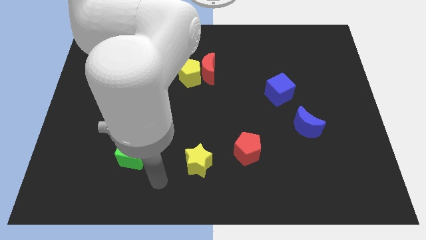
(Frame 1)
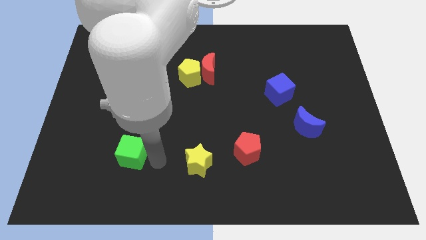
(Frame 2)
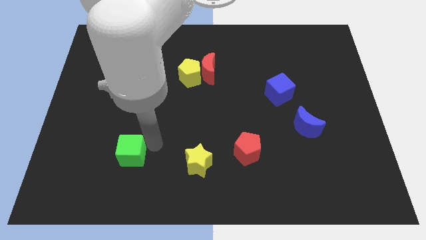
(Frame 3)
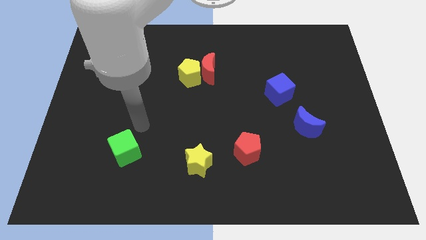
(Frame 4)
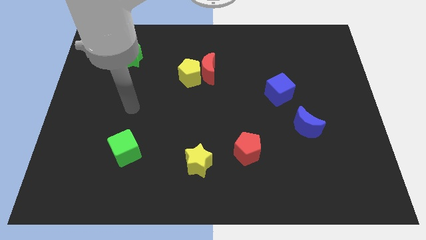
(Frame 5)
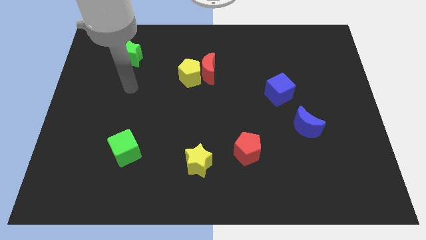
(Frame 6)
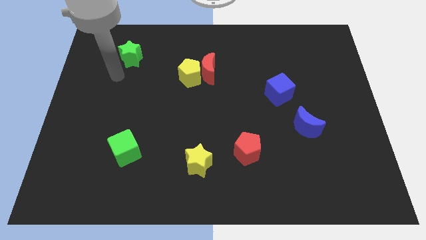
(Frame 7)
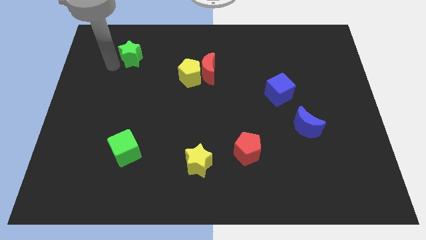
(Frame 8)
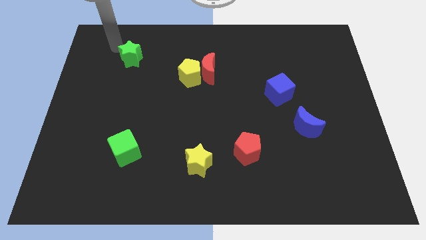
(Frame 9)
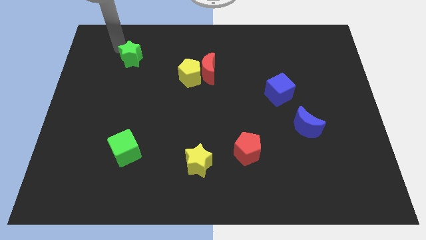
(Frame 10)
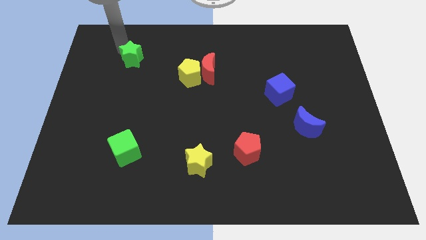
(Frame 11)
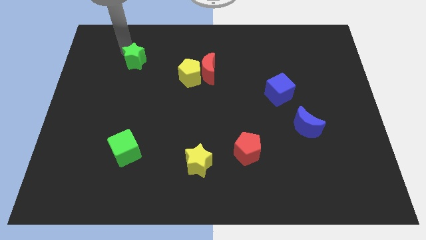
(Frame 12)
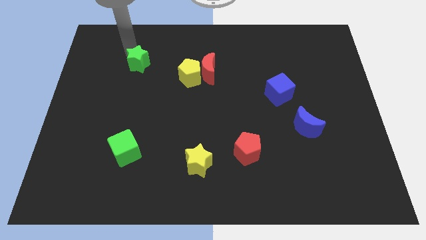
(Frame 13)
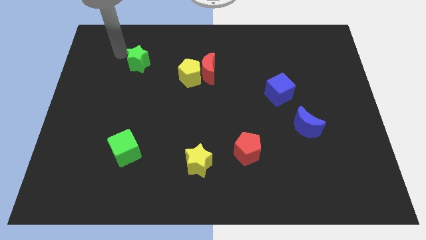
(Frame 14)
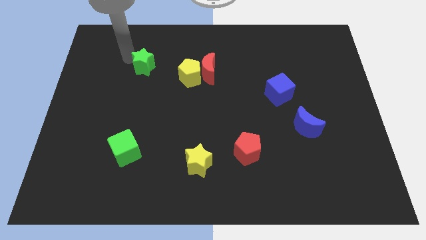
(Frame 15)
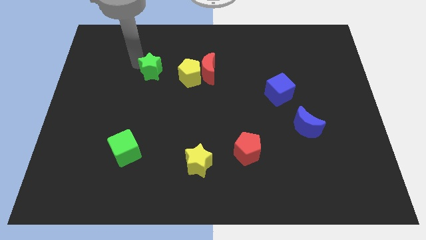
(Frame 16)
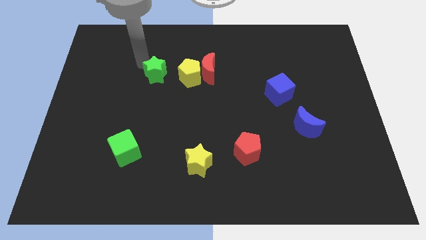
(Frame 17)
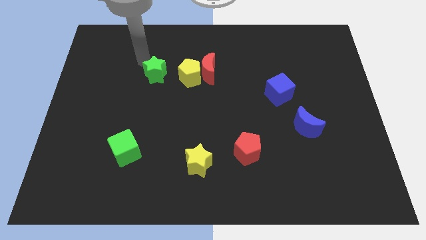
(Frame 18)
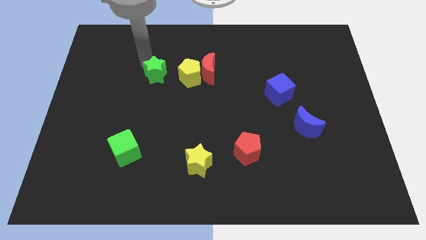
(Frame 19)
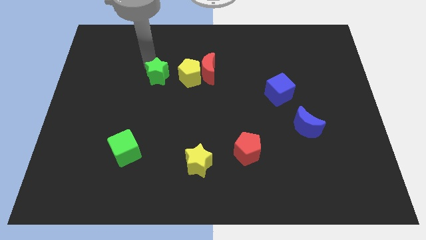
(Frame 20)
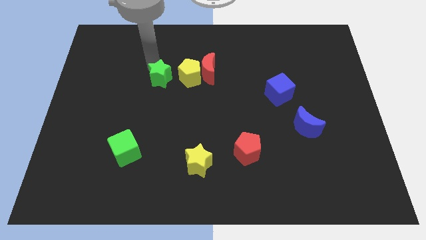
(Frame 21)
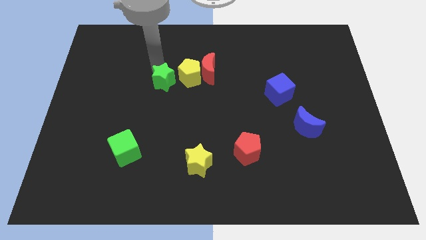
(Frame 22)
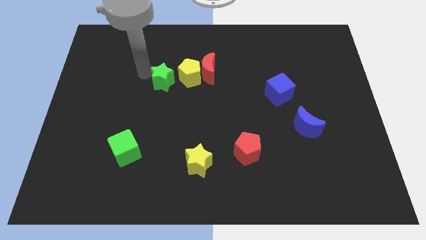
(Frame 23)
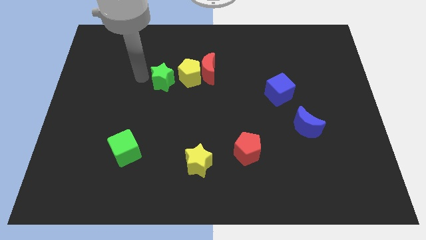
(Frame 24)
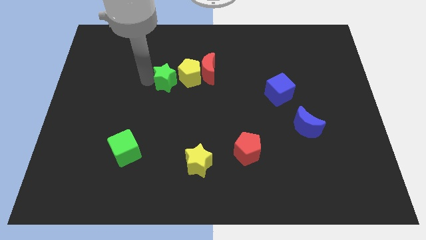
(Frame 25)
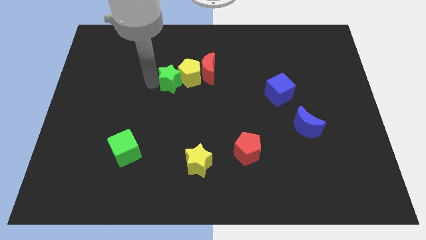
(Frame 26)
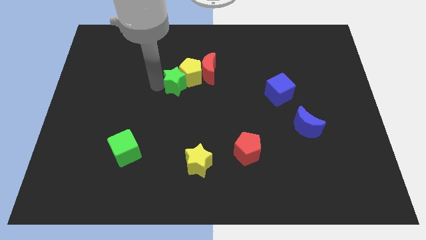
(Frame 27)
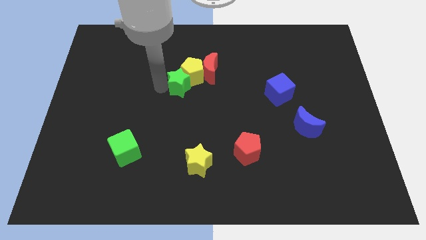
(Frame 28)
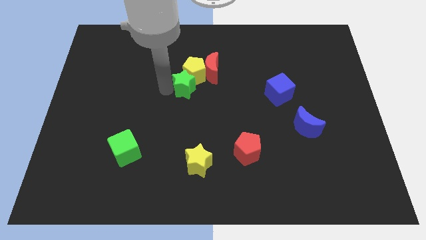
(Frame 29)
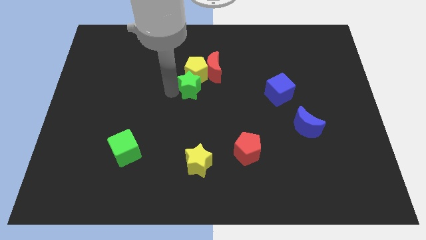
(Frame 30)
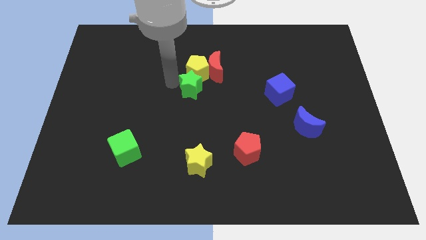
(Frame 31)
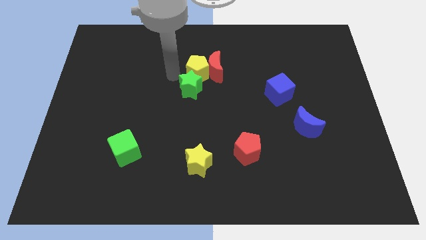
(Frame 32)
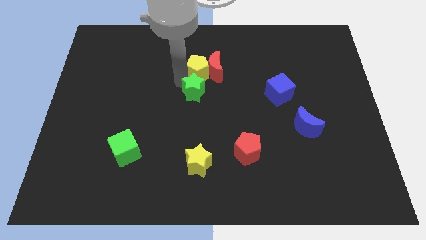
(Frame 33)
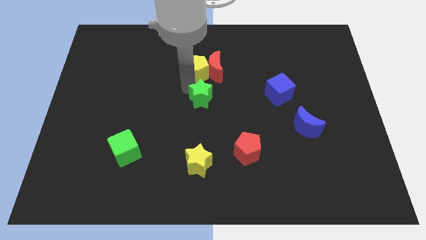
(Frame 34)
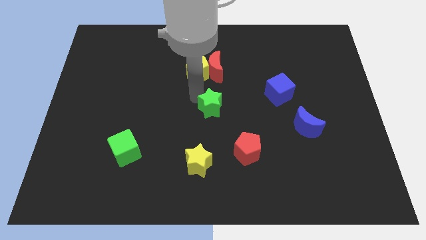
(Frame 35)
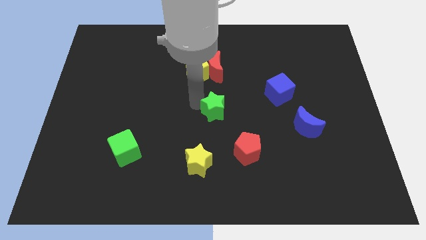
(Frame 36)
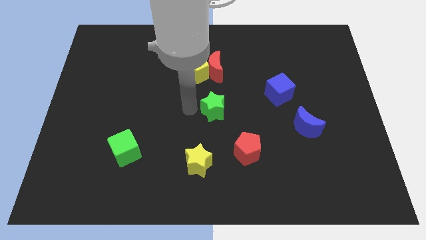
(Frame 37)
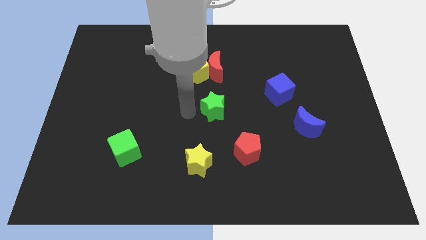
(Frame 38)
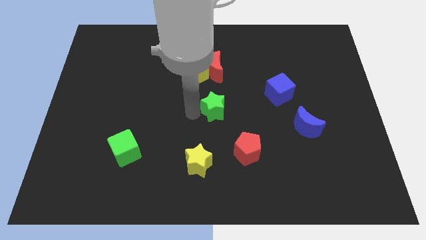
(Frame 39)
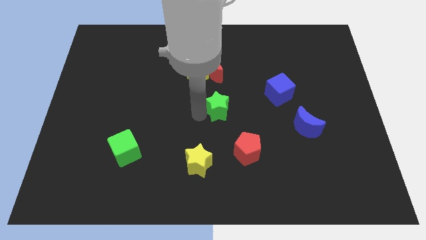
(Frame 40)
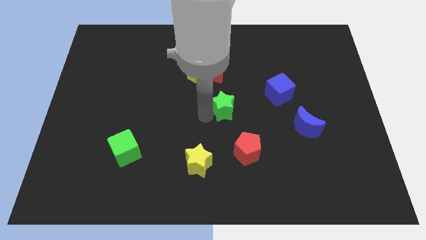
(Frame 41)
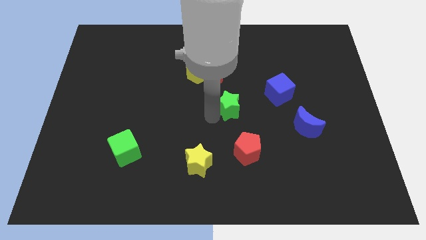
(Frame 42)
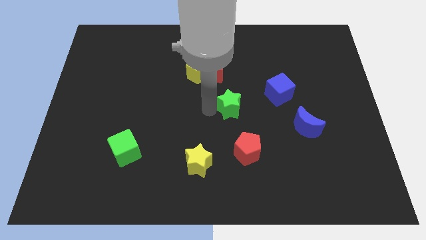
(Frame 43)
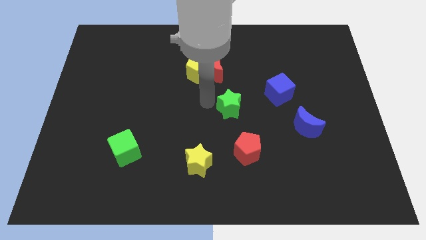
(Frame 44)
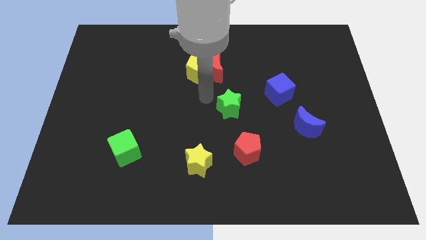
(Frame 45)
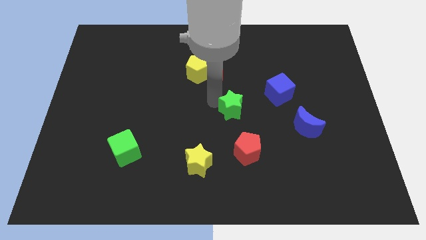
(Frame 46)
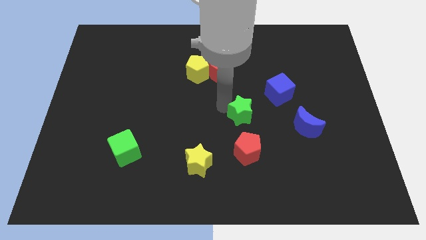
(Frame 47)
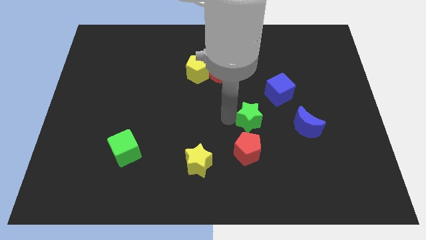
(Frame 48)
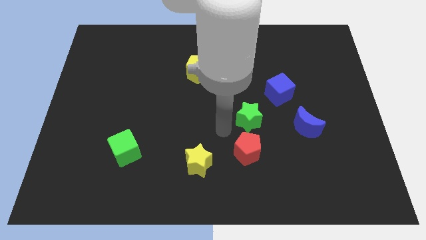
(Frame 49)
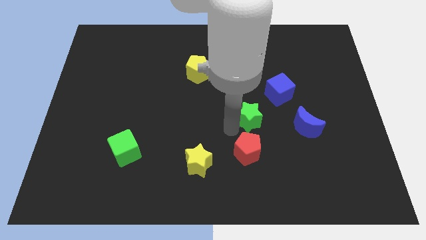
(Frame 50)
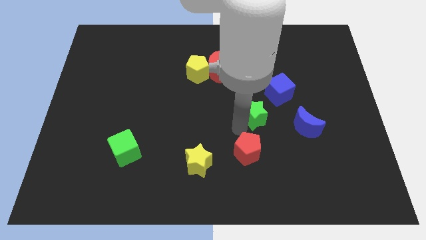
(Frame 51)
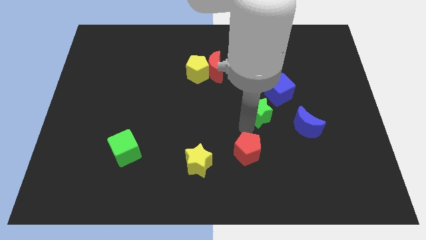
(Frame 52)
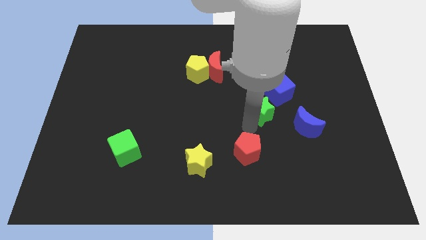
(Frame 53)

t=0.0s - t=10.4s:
push the green star to the top left side of the blue moon

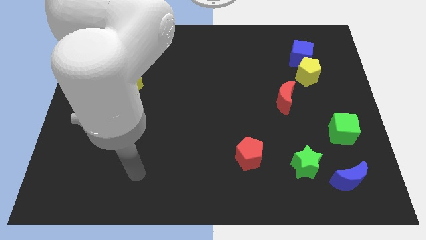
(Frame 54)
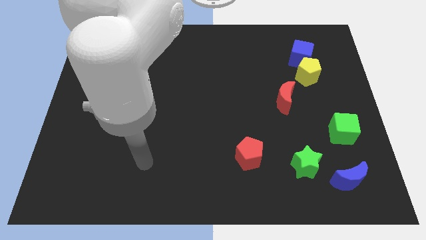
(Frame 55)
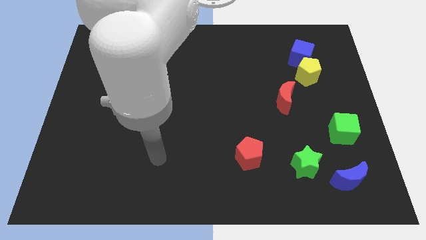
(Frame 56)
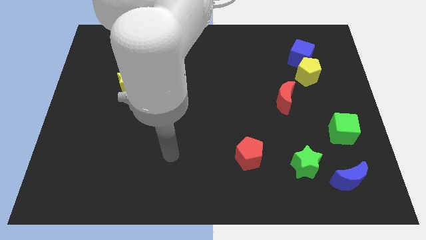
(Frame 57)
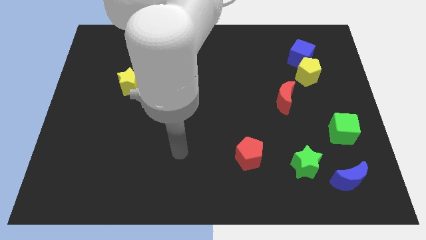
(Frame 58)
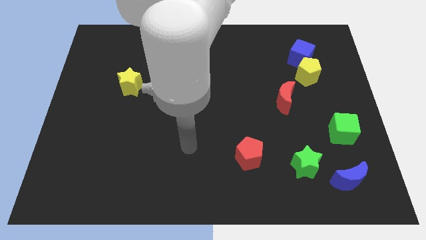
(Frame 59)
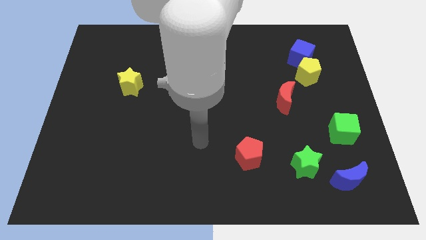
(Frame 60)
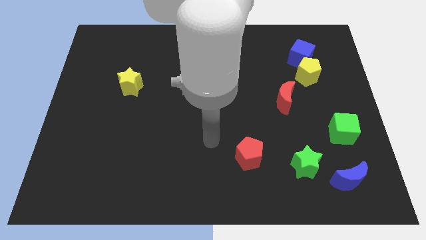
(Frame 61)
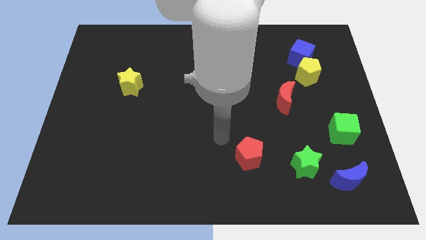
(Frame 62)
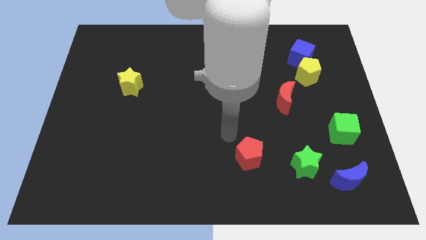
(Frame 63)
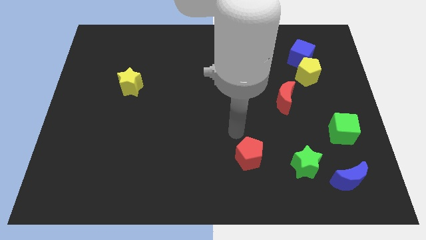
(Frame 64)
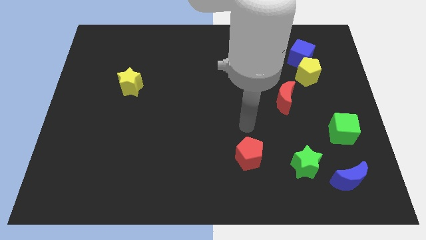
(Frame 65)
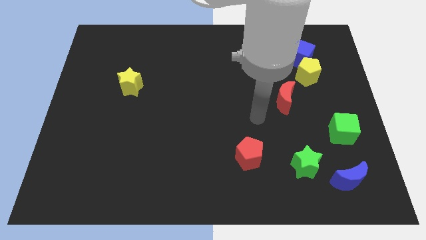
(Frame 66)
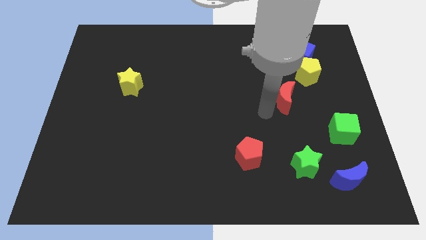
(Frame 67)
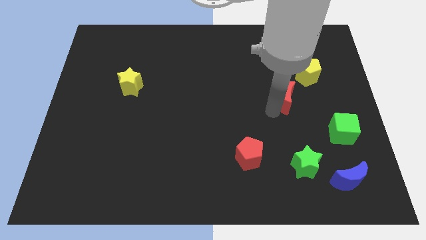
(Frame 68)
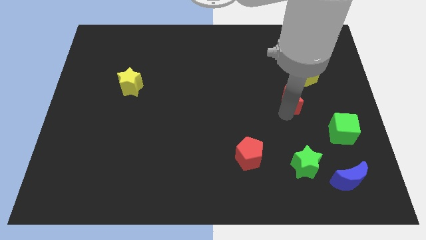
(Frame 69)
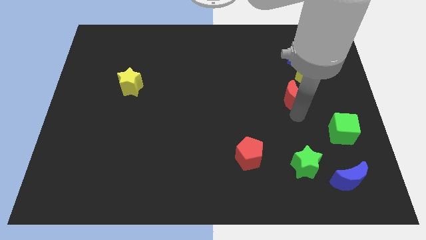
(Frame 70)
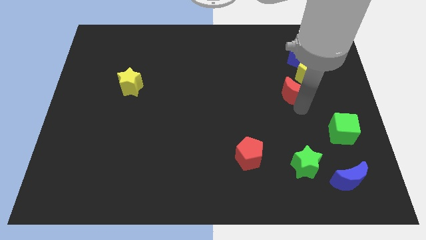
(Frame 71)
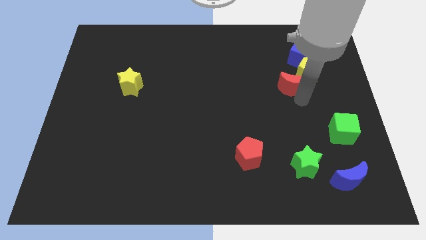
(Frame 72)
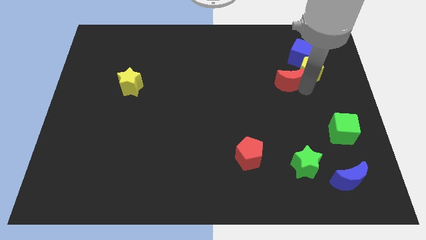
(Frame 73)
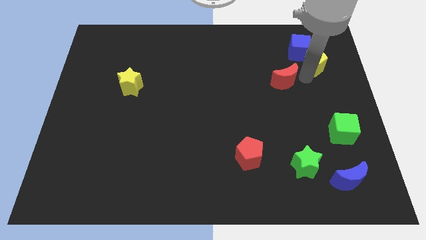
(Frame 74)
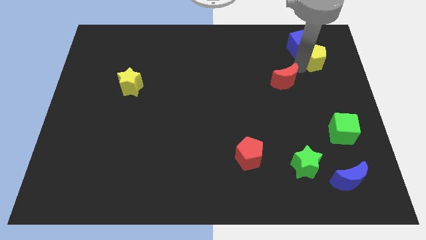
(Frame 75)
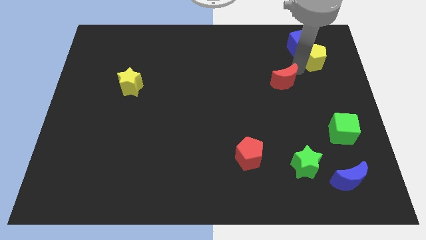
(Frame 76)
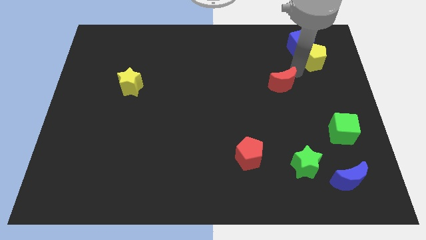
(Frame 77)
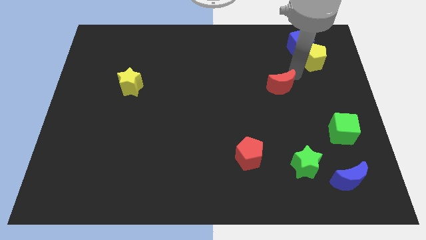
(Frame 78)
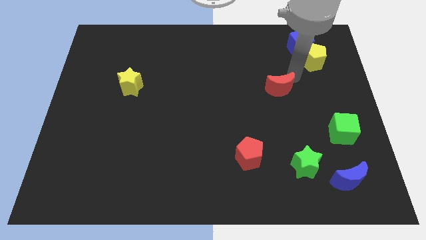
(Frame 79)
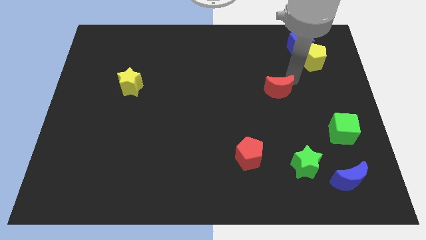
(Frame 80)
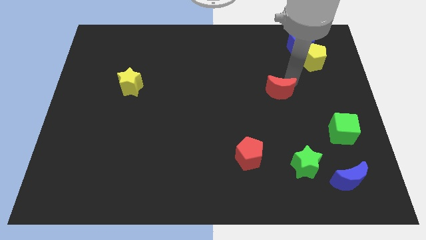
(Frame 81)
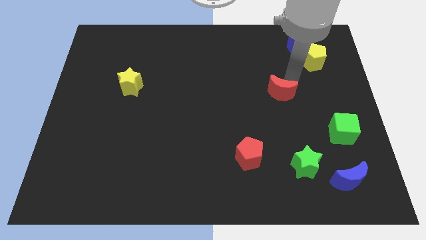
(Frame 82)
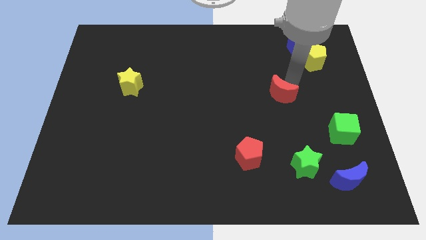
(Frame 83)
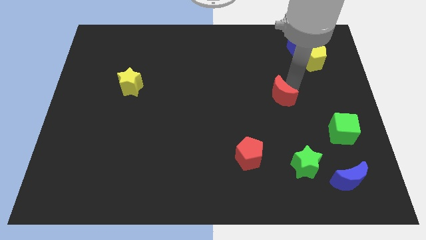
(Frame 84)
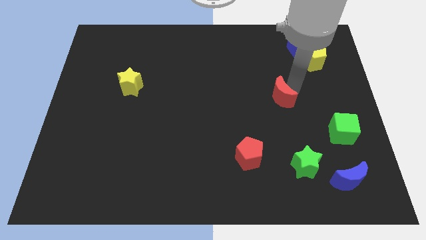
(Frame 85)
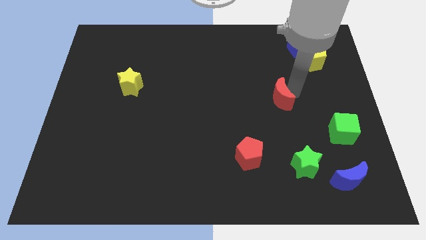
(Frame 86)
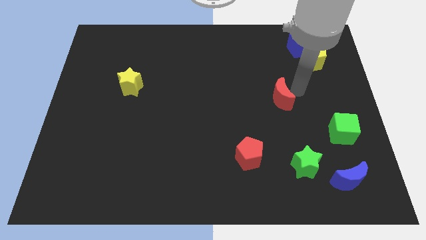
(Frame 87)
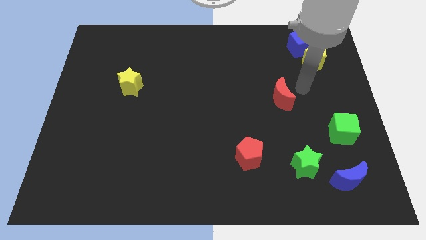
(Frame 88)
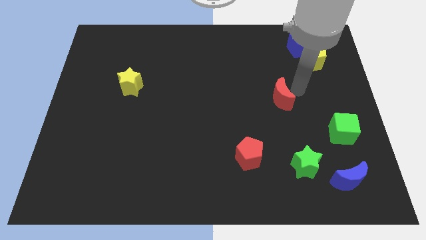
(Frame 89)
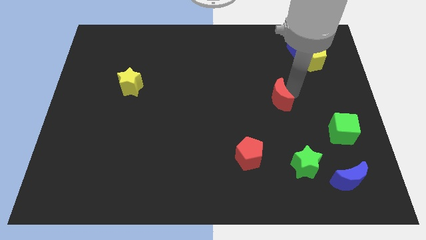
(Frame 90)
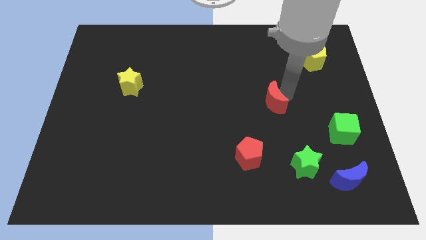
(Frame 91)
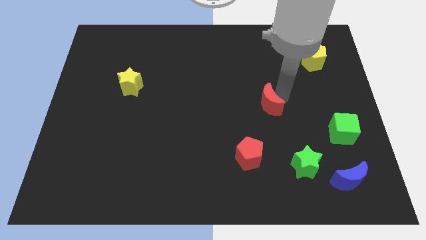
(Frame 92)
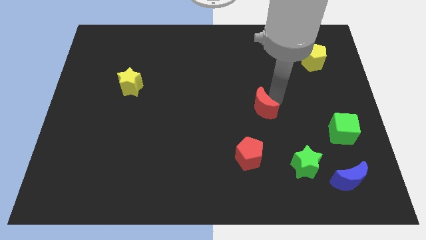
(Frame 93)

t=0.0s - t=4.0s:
slide the red moon to the top of the red pentagon
